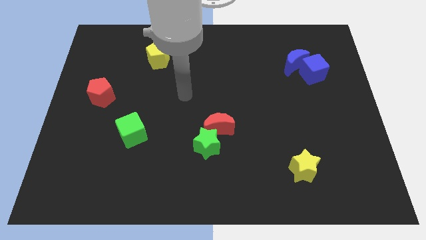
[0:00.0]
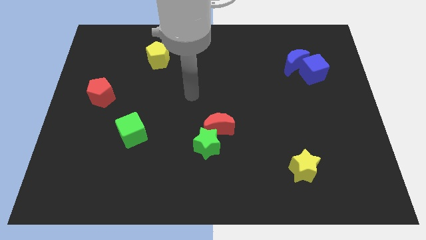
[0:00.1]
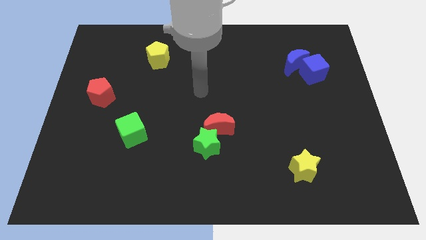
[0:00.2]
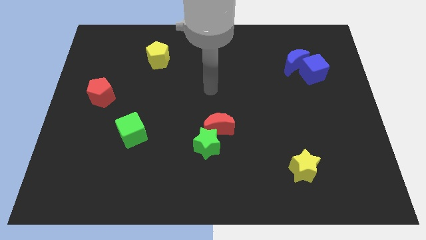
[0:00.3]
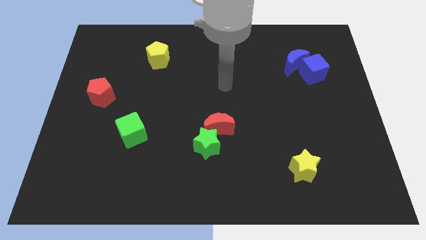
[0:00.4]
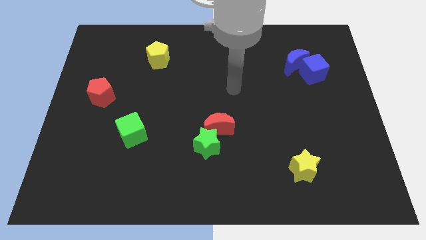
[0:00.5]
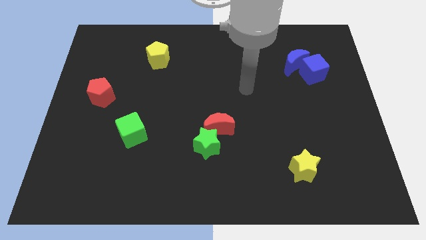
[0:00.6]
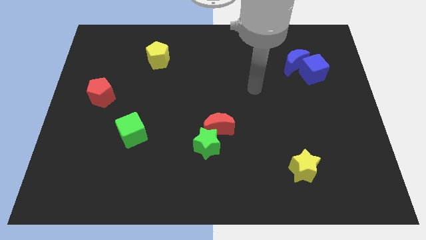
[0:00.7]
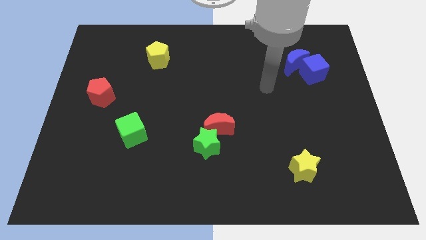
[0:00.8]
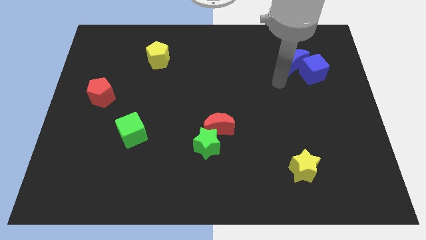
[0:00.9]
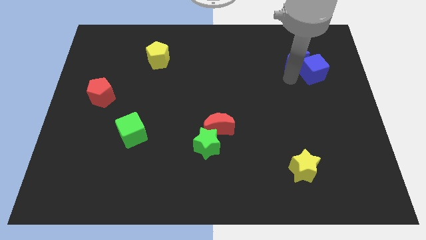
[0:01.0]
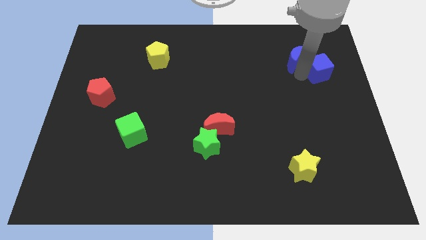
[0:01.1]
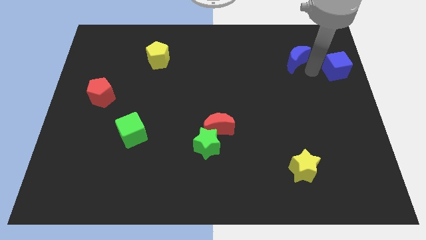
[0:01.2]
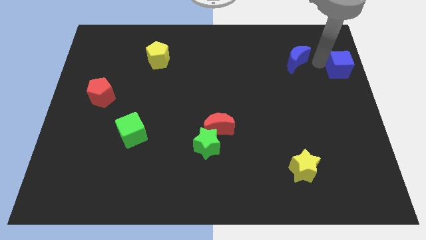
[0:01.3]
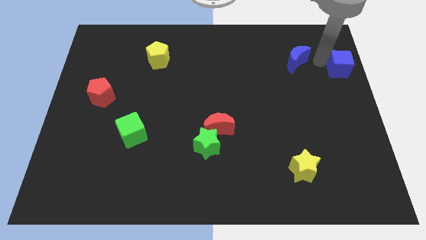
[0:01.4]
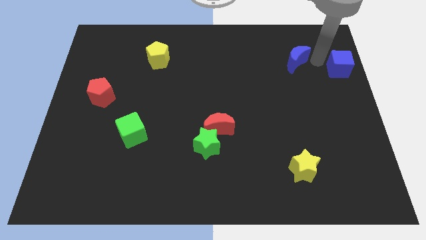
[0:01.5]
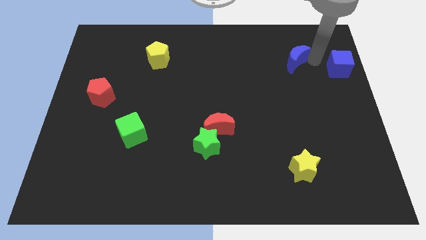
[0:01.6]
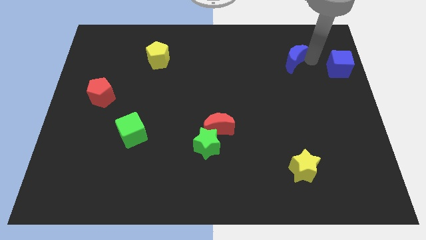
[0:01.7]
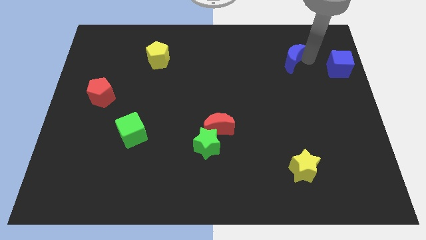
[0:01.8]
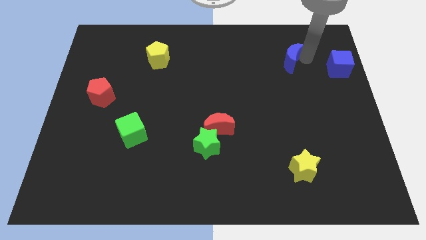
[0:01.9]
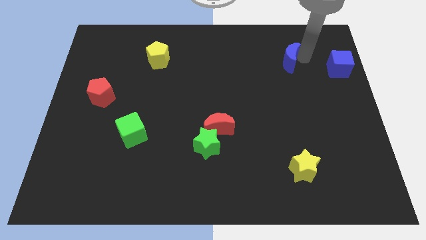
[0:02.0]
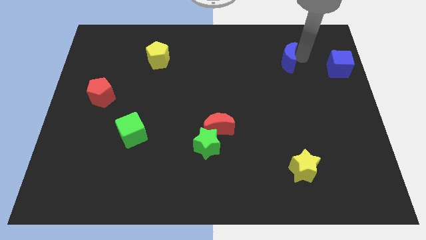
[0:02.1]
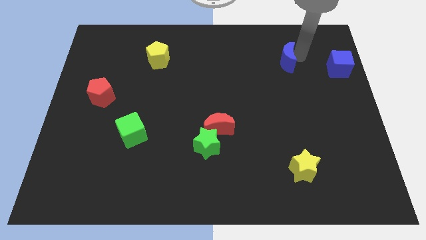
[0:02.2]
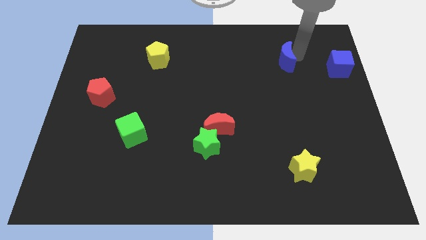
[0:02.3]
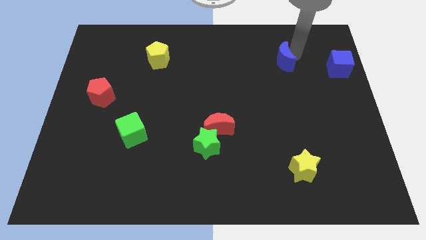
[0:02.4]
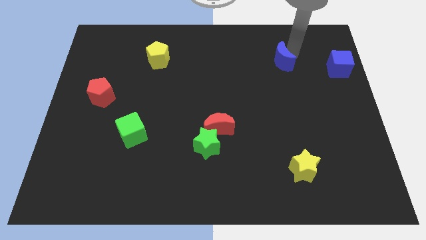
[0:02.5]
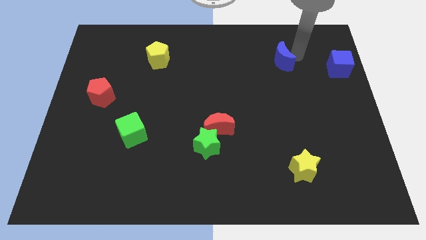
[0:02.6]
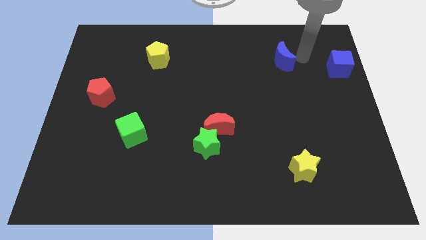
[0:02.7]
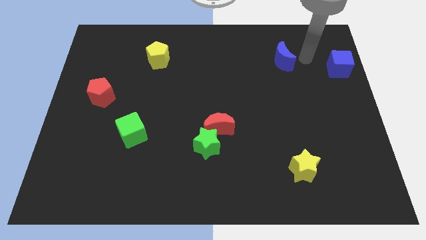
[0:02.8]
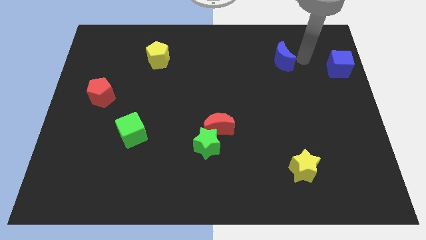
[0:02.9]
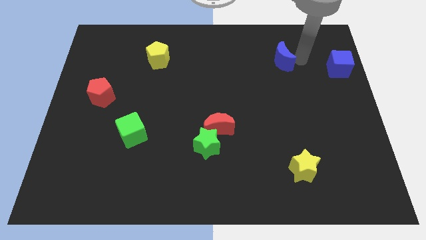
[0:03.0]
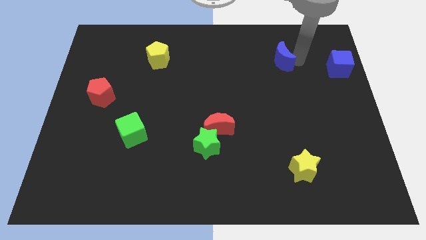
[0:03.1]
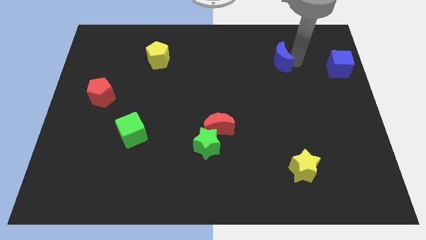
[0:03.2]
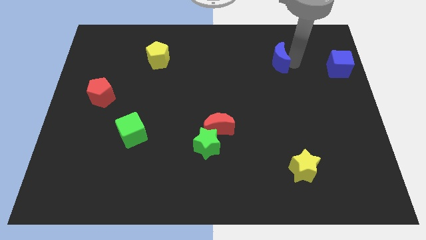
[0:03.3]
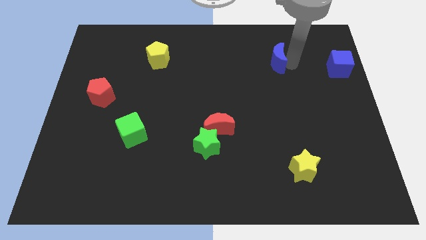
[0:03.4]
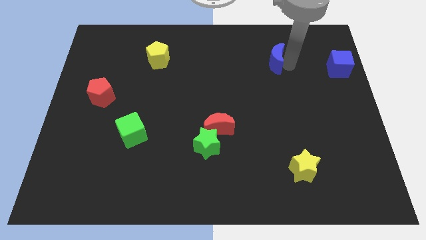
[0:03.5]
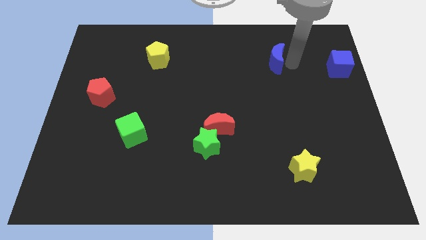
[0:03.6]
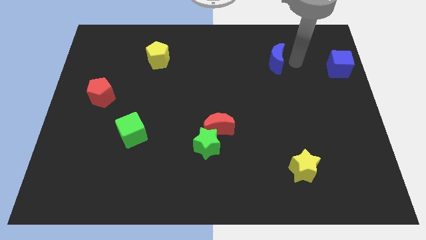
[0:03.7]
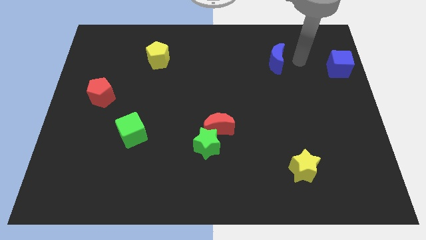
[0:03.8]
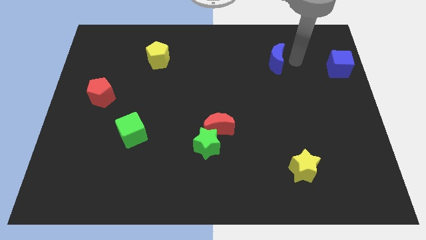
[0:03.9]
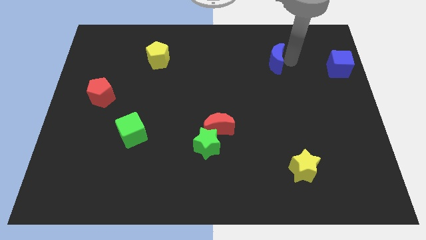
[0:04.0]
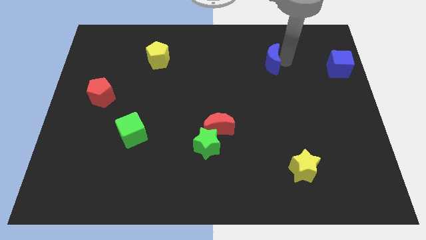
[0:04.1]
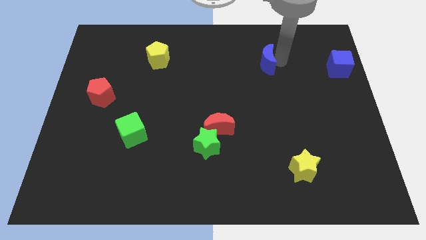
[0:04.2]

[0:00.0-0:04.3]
move the blue moon somewhat to the left

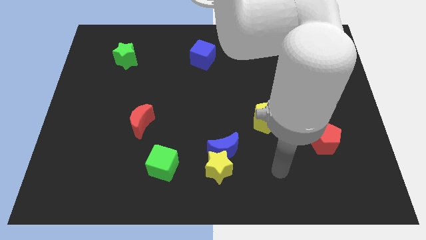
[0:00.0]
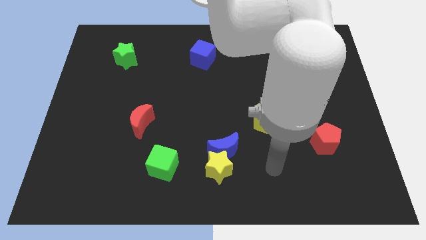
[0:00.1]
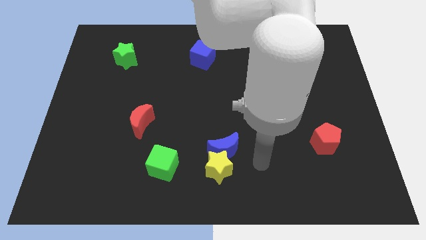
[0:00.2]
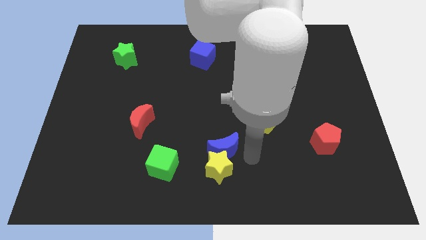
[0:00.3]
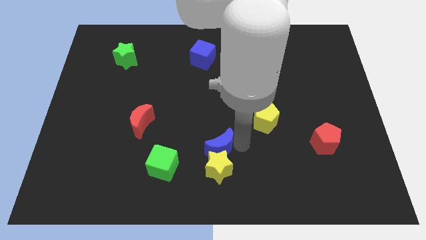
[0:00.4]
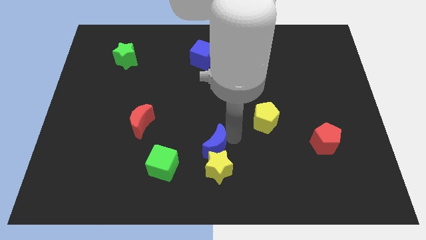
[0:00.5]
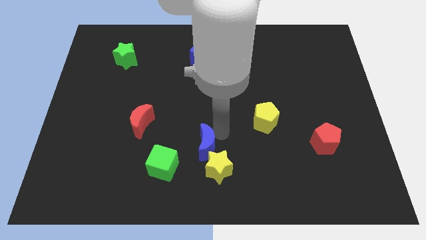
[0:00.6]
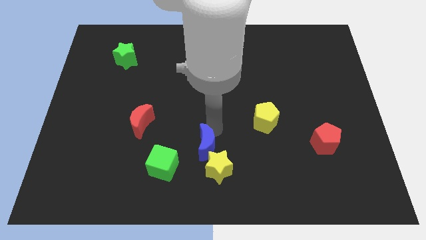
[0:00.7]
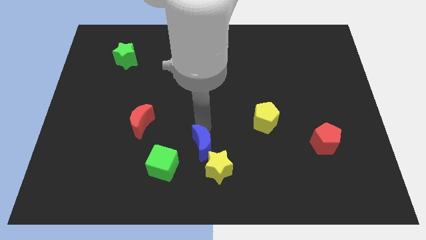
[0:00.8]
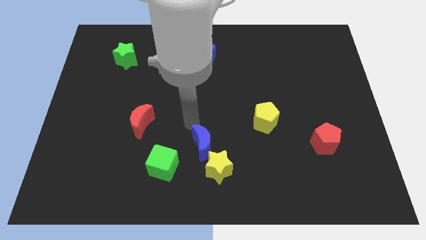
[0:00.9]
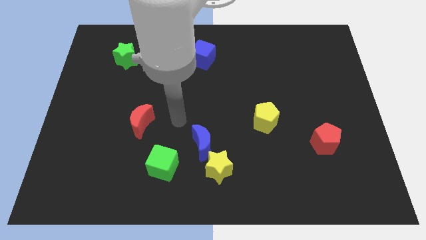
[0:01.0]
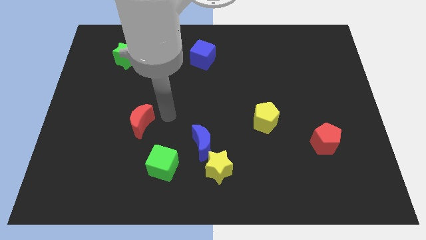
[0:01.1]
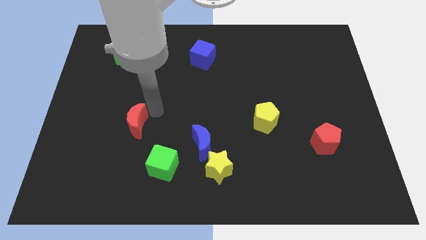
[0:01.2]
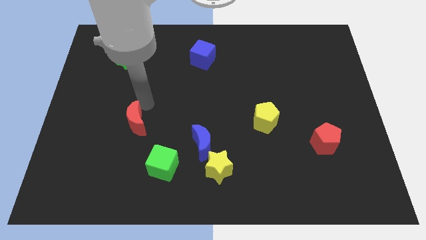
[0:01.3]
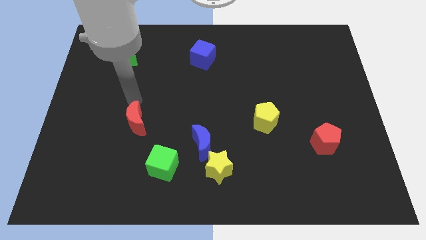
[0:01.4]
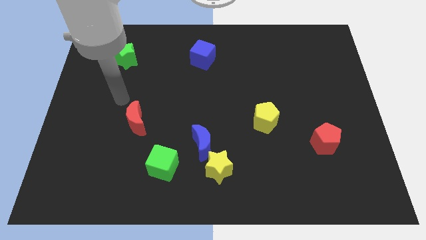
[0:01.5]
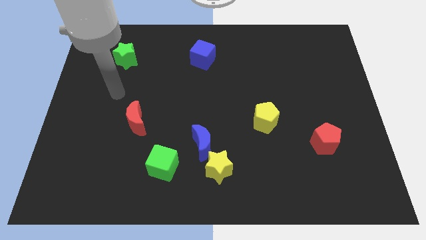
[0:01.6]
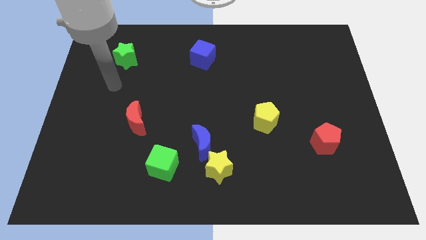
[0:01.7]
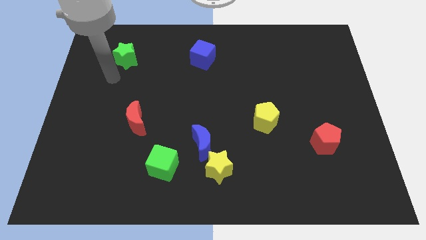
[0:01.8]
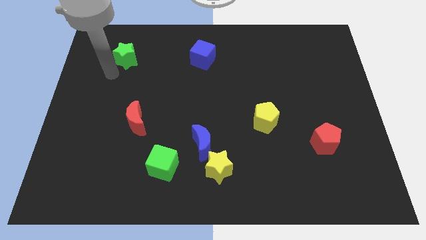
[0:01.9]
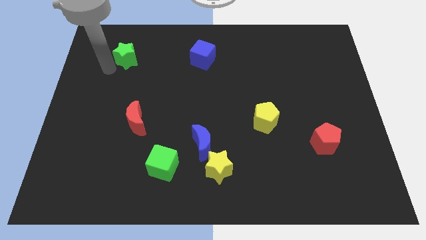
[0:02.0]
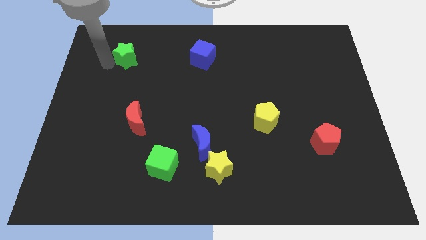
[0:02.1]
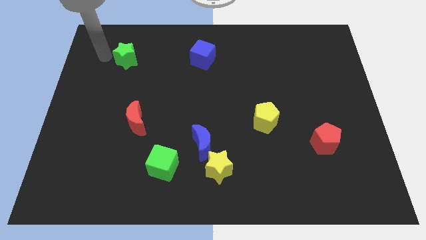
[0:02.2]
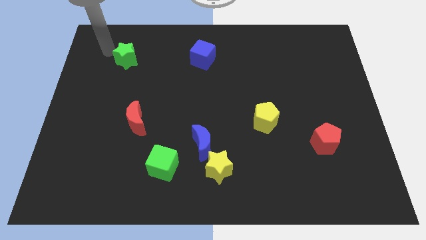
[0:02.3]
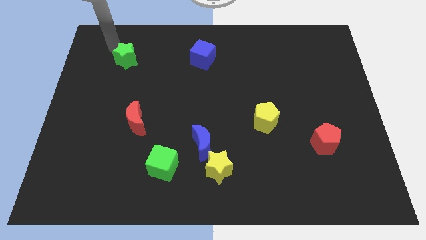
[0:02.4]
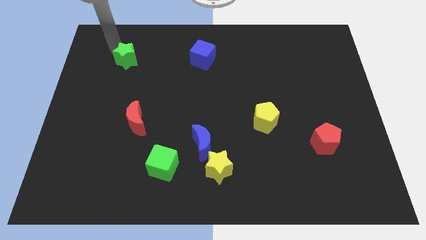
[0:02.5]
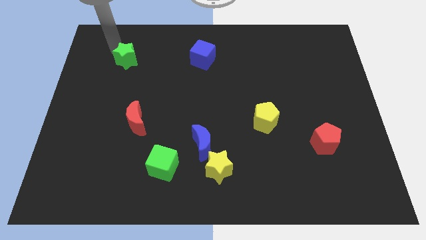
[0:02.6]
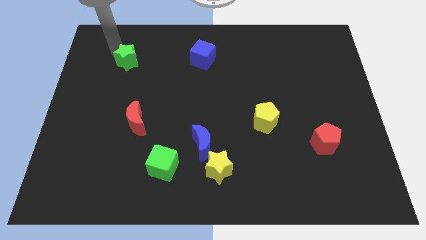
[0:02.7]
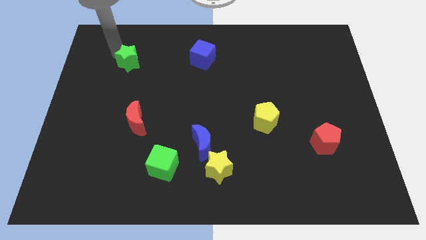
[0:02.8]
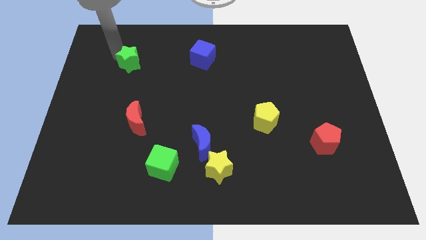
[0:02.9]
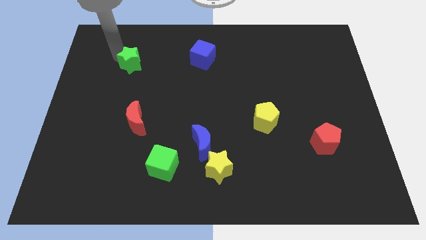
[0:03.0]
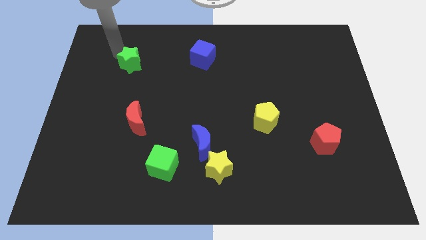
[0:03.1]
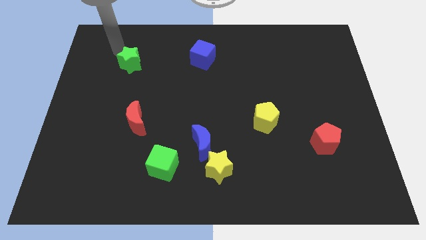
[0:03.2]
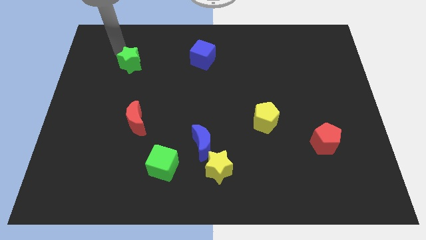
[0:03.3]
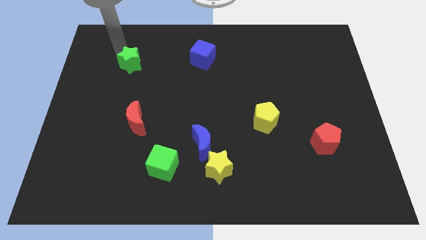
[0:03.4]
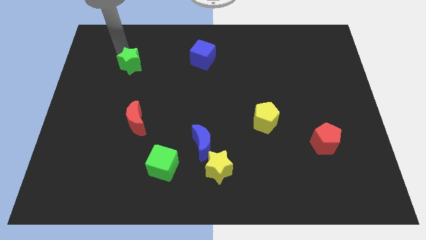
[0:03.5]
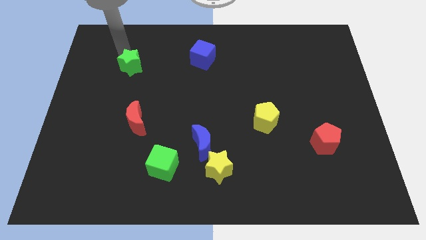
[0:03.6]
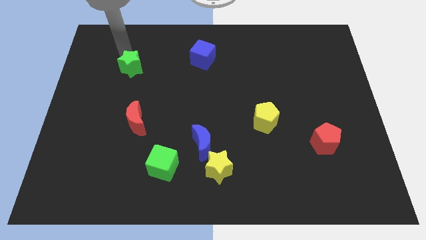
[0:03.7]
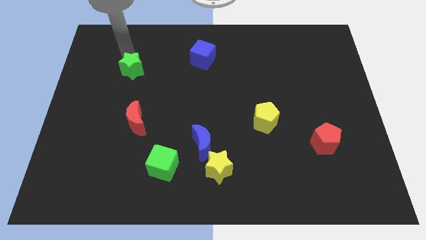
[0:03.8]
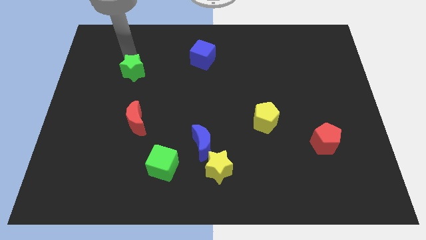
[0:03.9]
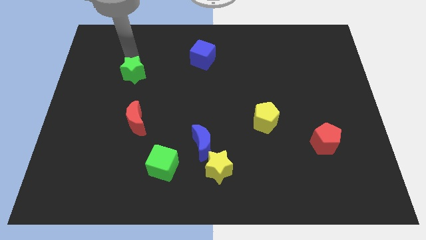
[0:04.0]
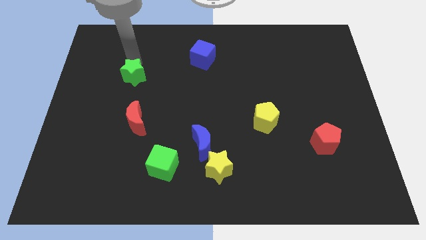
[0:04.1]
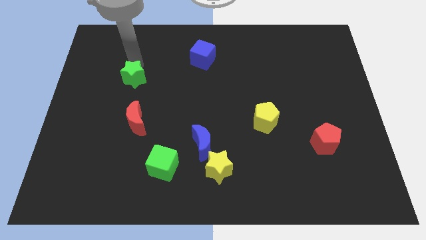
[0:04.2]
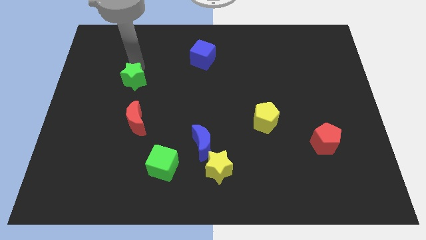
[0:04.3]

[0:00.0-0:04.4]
move the green star a little bit down and right diagonally
